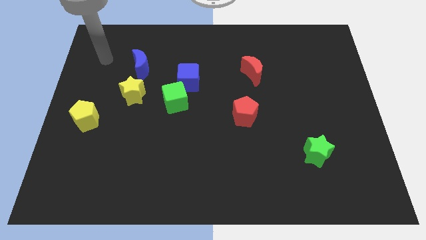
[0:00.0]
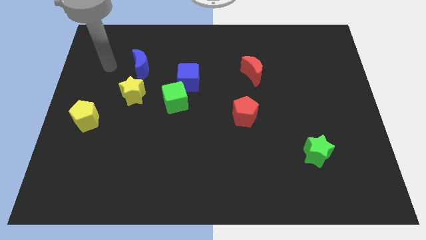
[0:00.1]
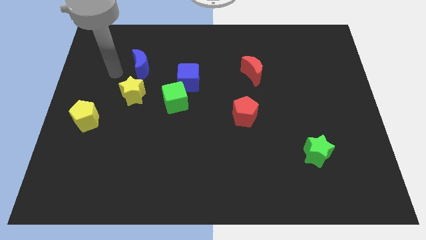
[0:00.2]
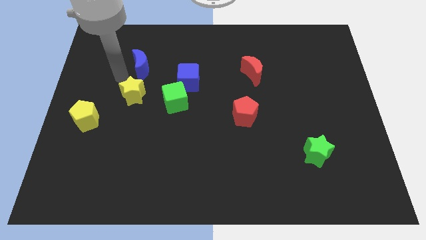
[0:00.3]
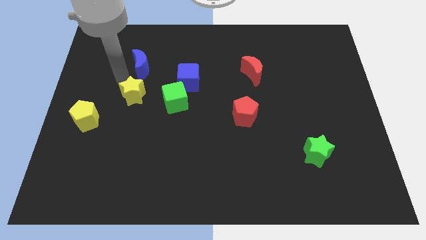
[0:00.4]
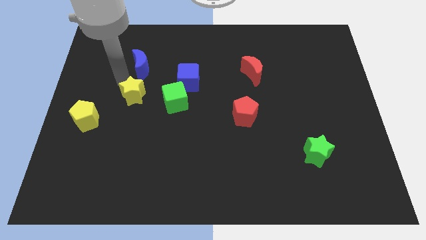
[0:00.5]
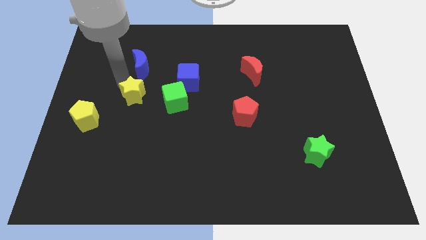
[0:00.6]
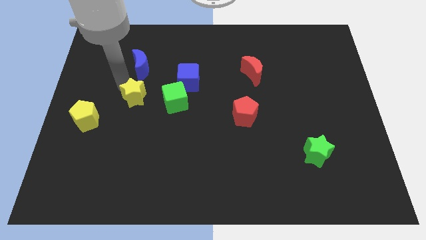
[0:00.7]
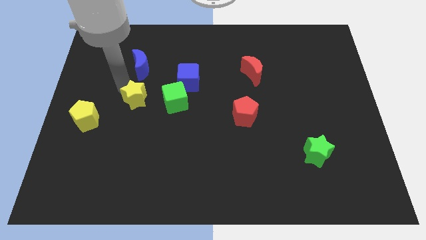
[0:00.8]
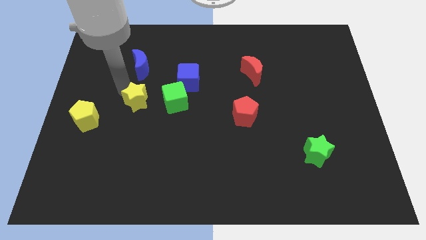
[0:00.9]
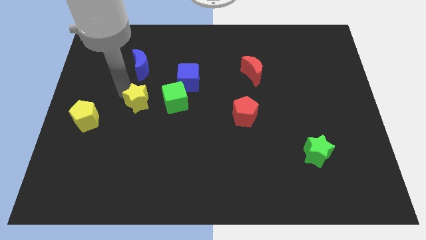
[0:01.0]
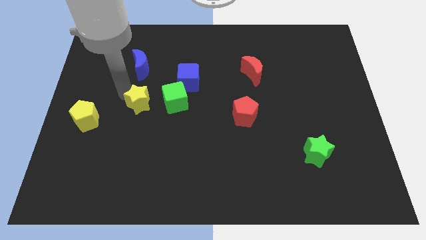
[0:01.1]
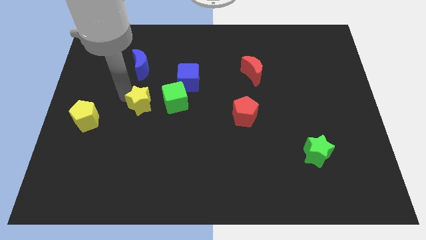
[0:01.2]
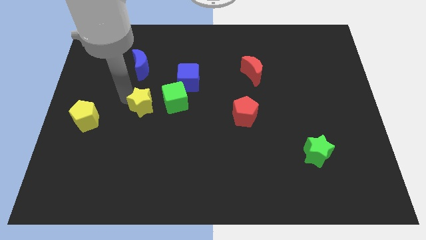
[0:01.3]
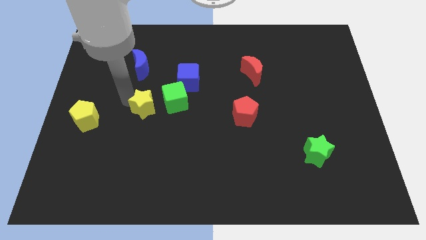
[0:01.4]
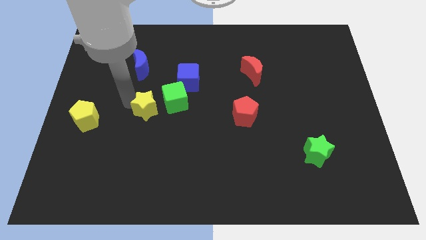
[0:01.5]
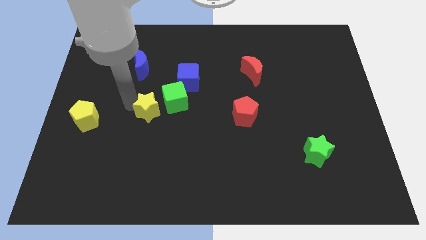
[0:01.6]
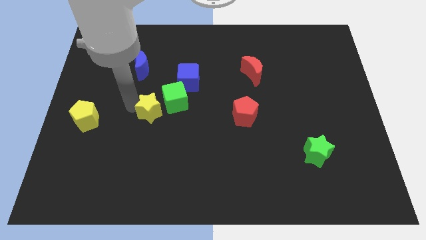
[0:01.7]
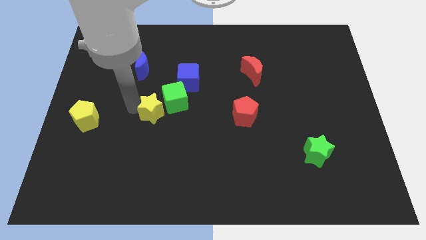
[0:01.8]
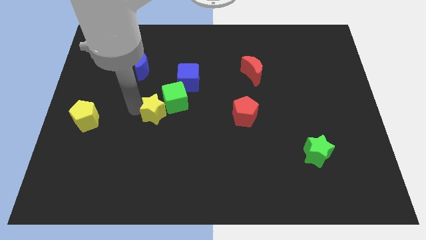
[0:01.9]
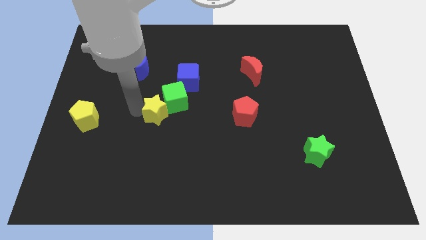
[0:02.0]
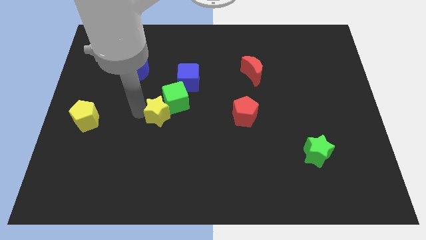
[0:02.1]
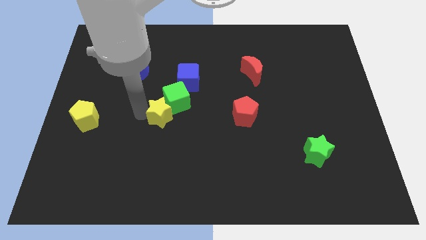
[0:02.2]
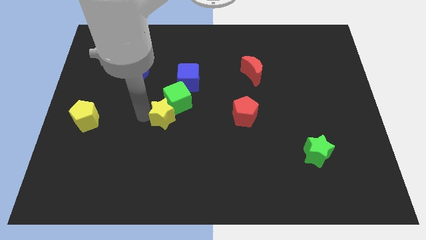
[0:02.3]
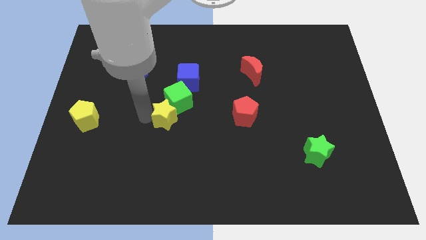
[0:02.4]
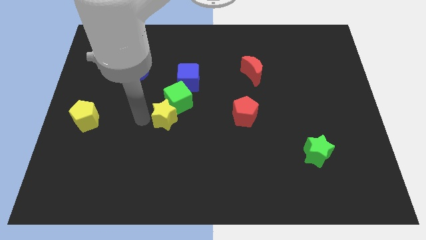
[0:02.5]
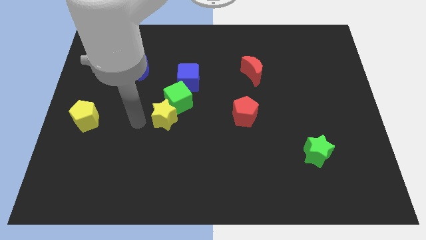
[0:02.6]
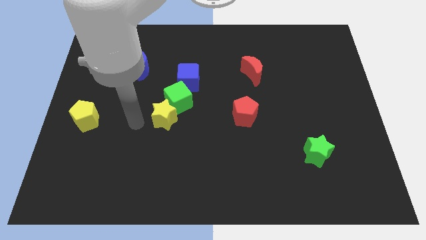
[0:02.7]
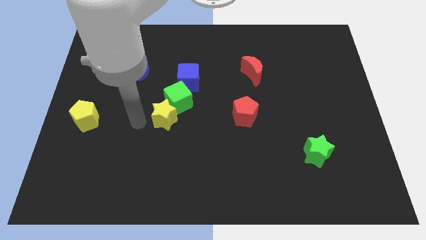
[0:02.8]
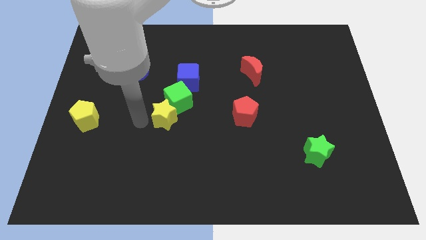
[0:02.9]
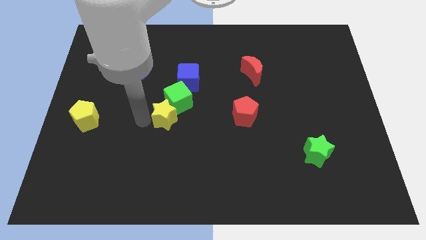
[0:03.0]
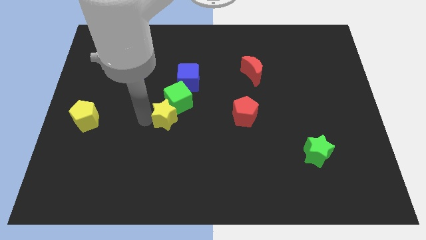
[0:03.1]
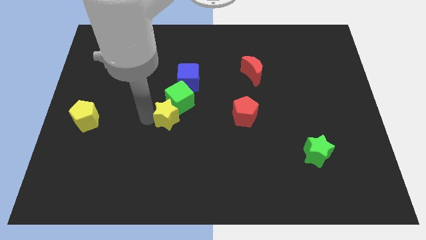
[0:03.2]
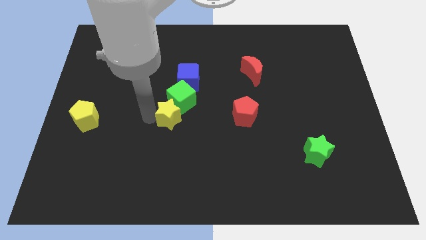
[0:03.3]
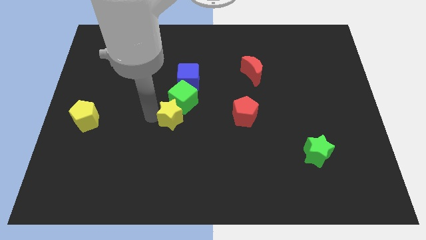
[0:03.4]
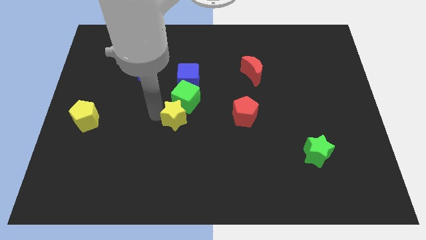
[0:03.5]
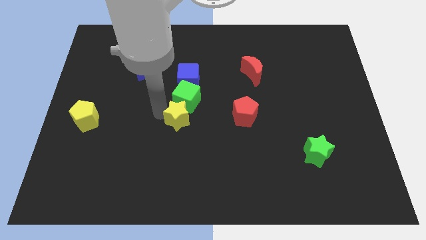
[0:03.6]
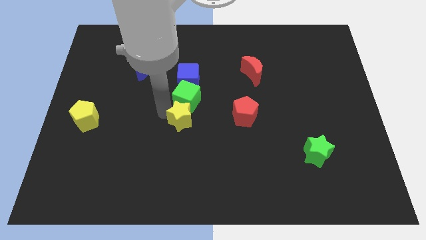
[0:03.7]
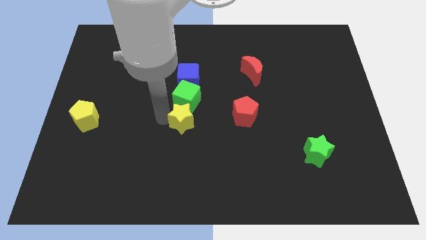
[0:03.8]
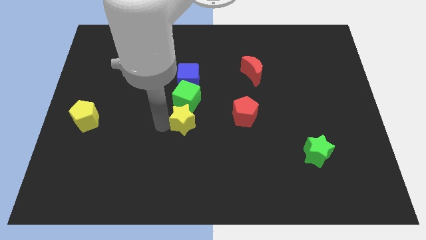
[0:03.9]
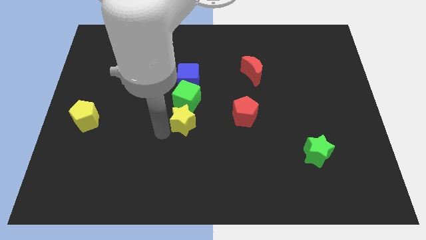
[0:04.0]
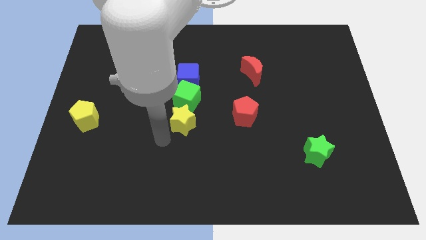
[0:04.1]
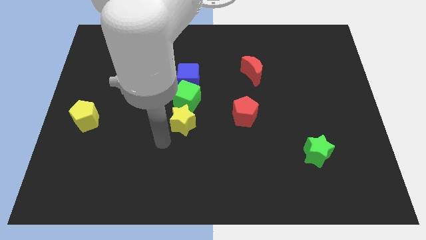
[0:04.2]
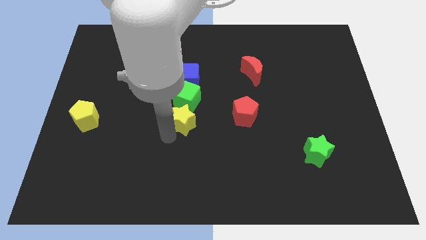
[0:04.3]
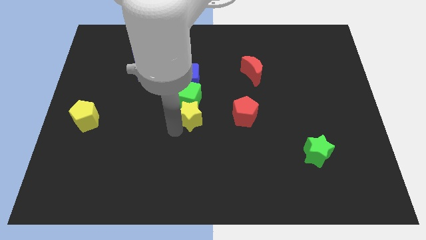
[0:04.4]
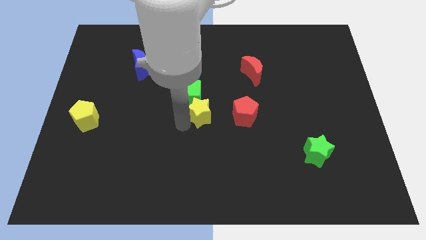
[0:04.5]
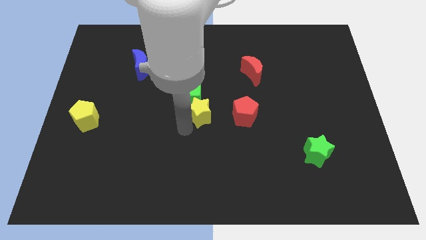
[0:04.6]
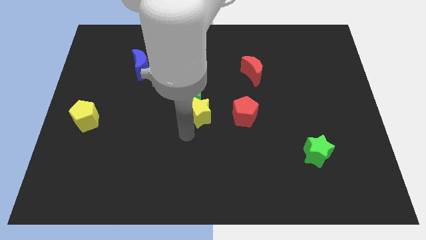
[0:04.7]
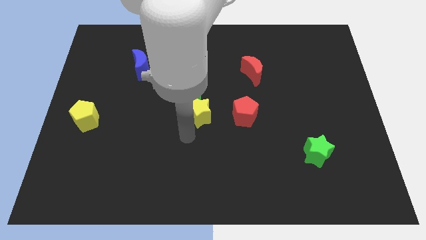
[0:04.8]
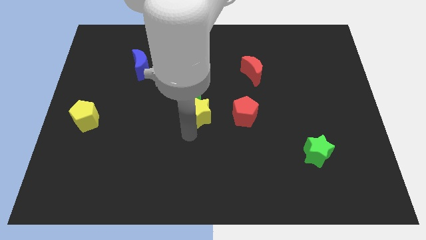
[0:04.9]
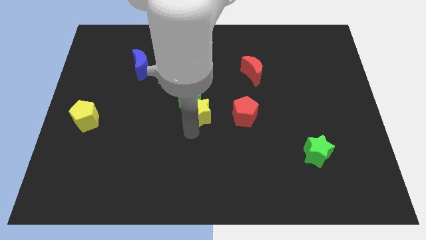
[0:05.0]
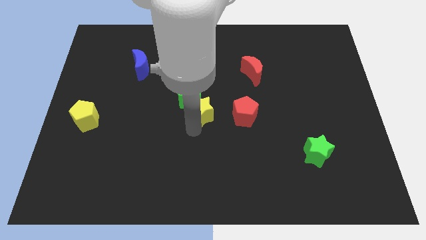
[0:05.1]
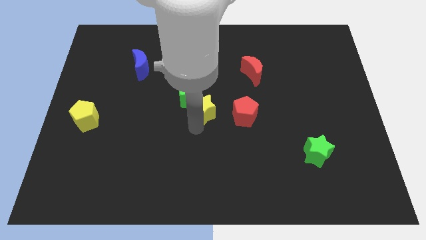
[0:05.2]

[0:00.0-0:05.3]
move the yellow star to the bottom right side of the blue cube

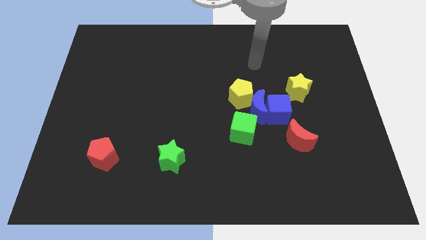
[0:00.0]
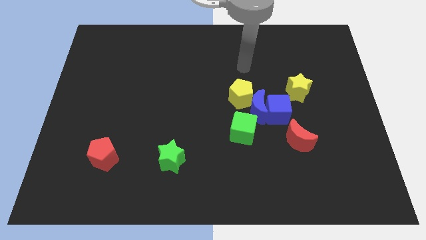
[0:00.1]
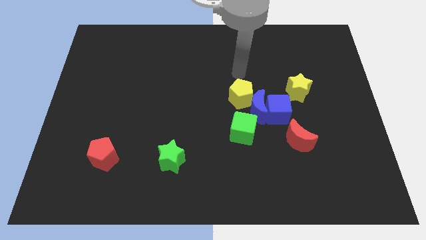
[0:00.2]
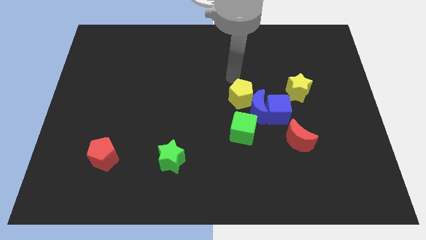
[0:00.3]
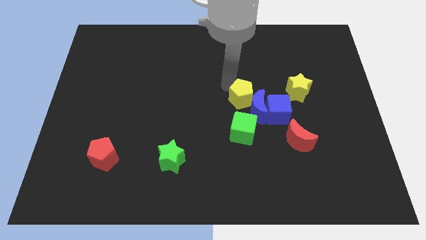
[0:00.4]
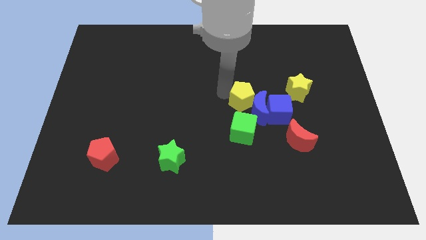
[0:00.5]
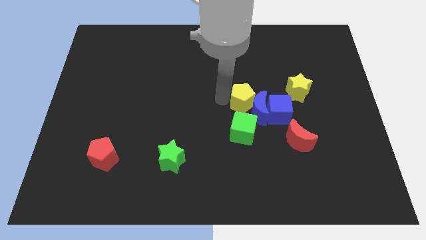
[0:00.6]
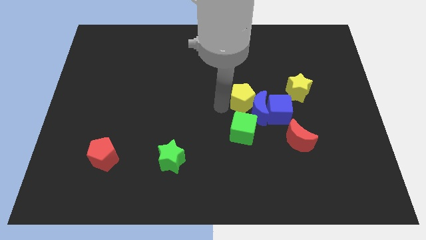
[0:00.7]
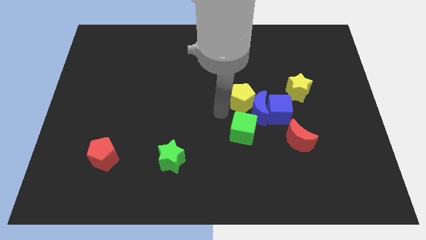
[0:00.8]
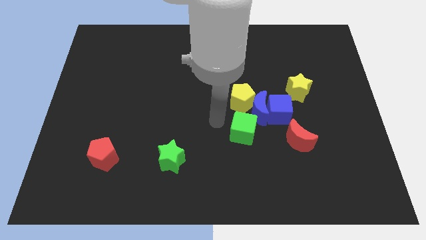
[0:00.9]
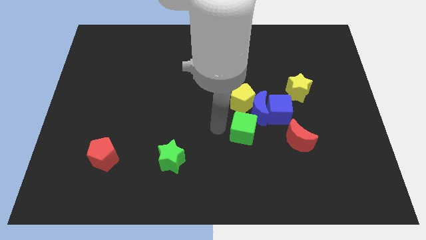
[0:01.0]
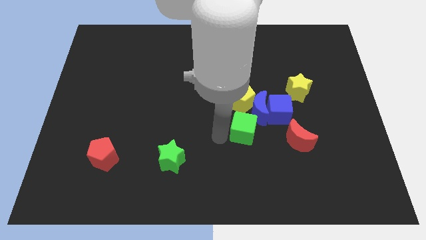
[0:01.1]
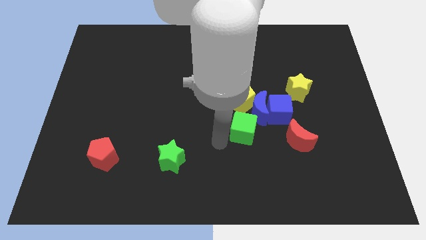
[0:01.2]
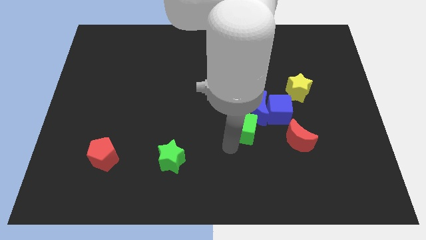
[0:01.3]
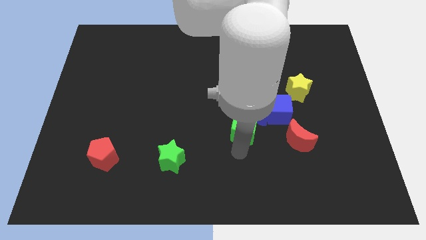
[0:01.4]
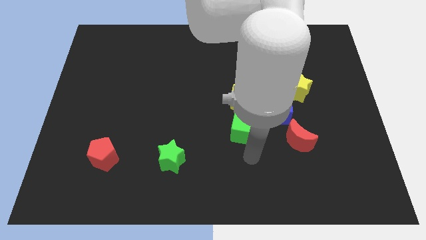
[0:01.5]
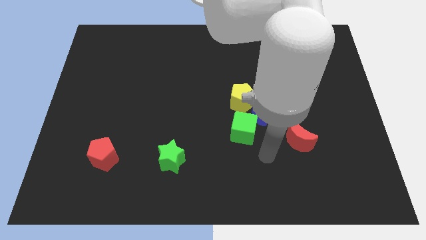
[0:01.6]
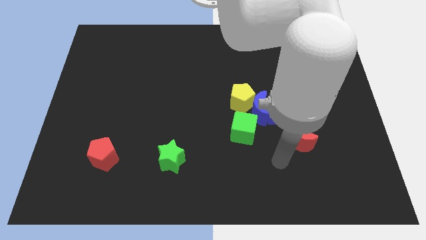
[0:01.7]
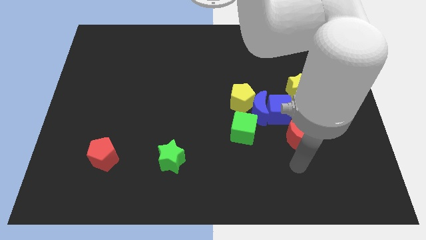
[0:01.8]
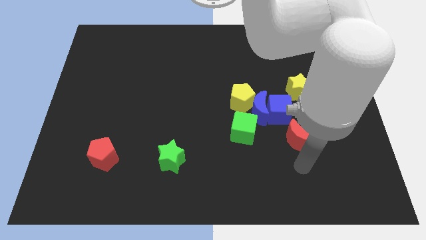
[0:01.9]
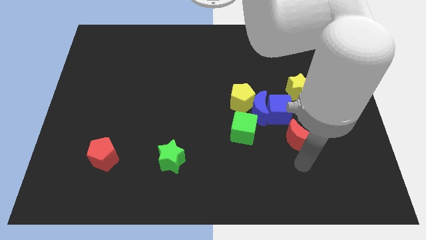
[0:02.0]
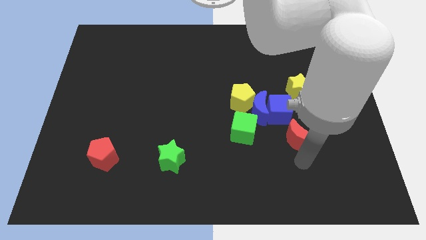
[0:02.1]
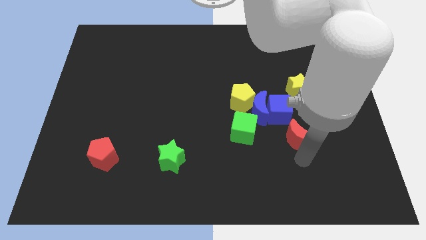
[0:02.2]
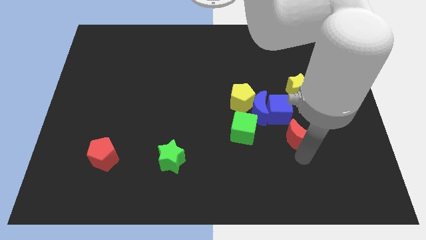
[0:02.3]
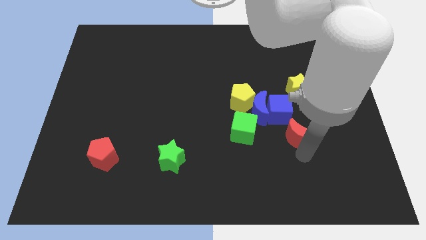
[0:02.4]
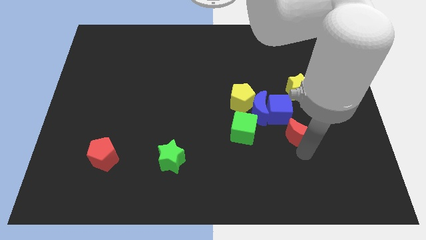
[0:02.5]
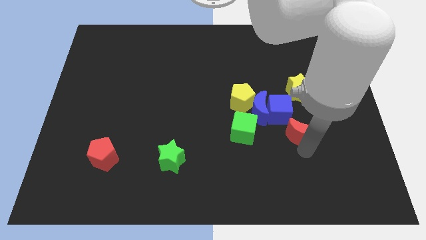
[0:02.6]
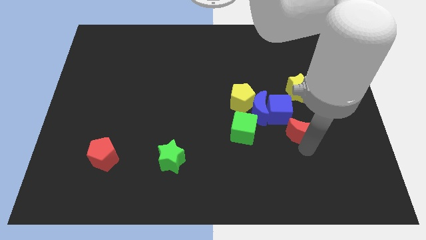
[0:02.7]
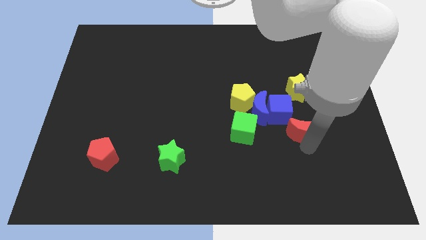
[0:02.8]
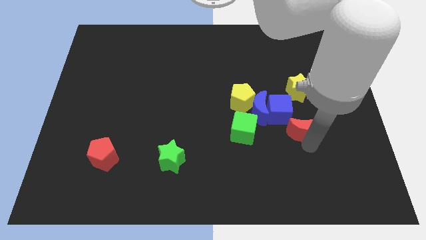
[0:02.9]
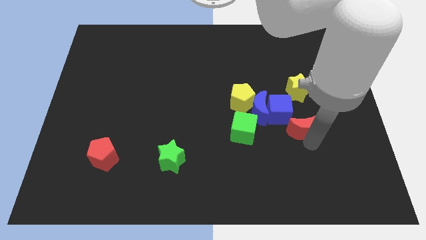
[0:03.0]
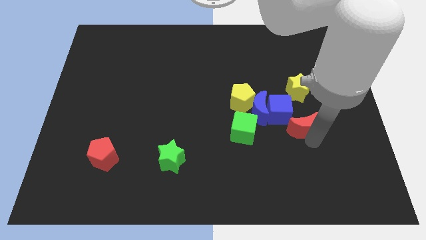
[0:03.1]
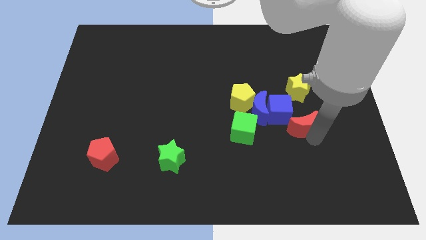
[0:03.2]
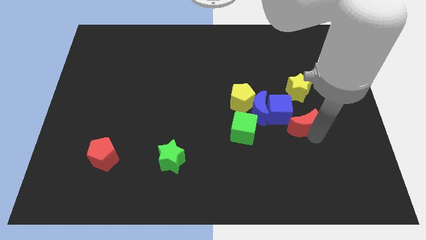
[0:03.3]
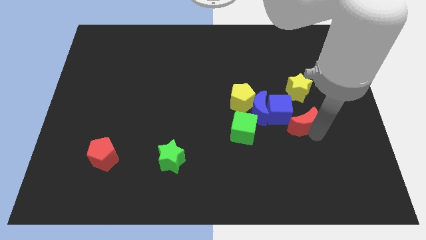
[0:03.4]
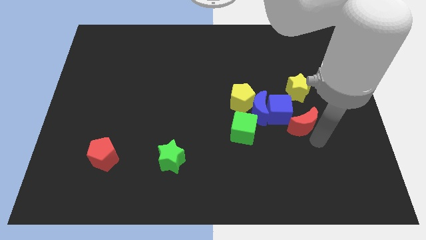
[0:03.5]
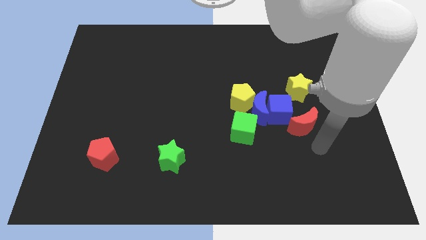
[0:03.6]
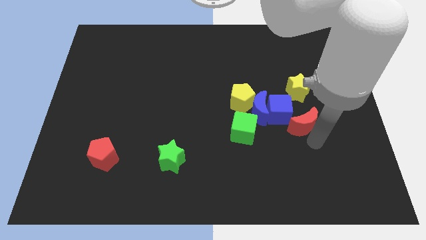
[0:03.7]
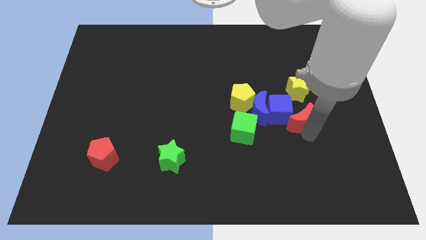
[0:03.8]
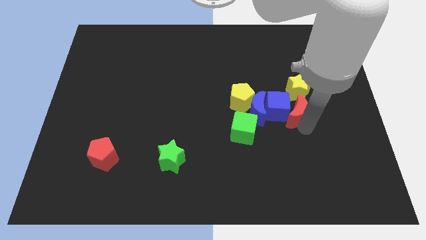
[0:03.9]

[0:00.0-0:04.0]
put the red moon to the right side of the yellow pentagon
